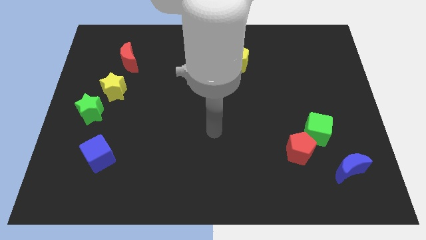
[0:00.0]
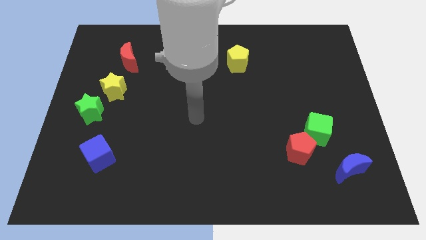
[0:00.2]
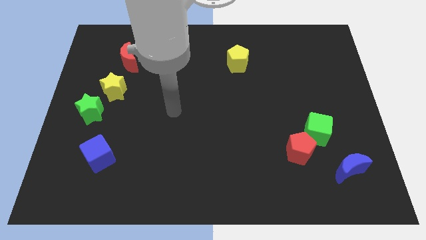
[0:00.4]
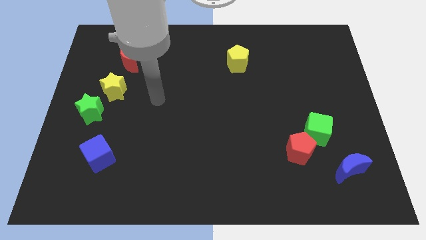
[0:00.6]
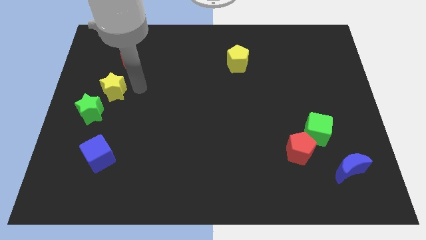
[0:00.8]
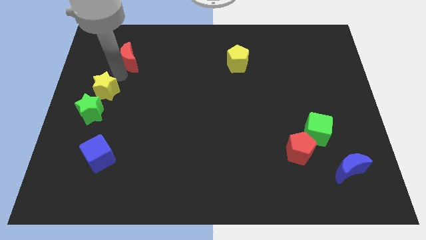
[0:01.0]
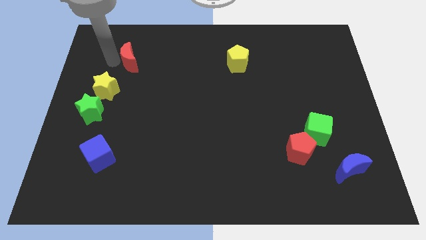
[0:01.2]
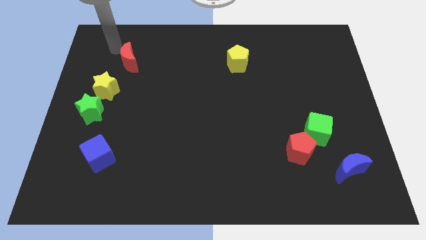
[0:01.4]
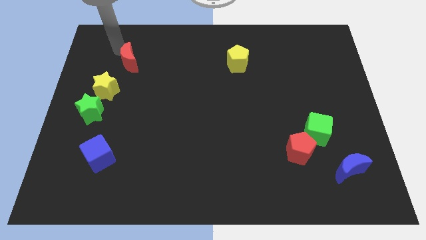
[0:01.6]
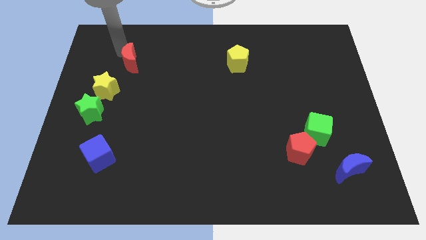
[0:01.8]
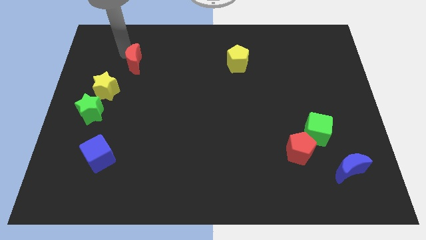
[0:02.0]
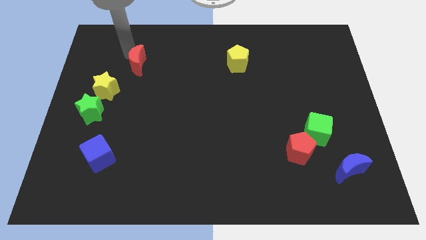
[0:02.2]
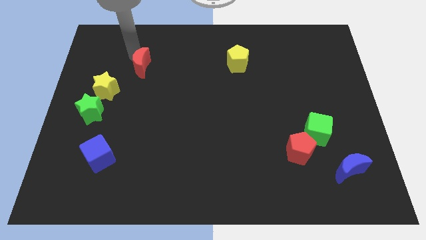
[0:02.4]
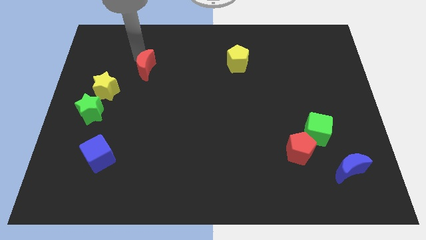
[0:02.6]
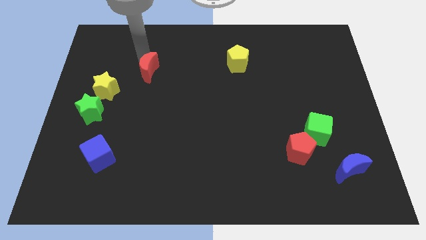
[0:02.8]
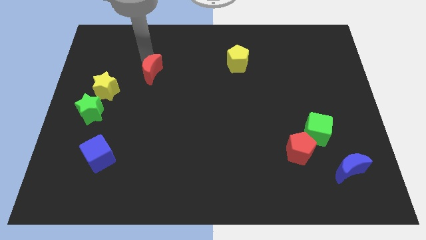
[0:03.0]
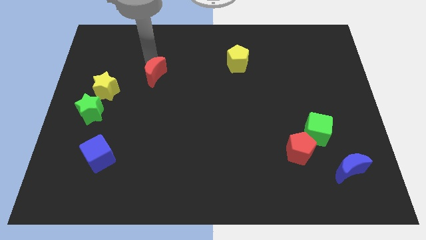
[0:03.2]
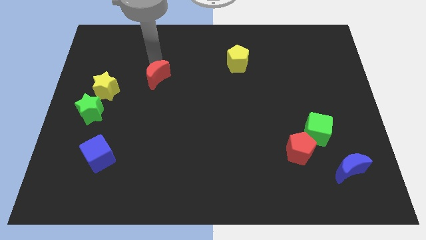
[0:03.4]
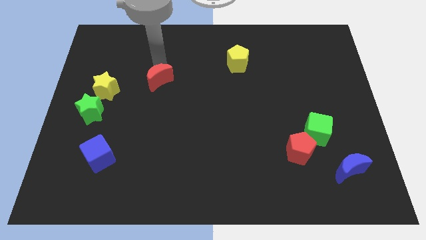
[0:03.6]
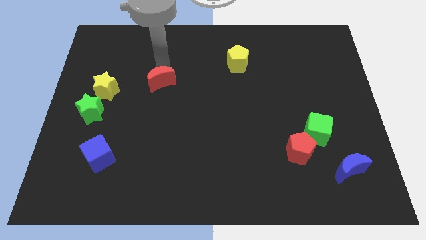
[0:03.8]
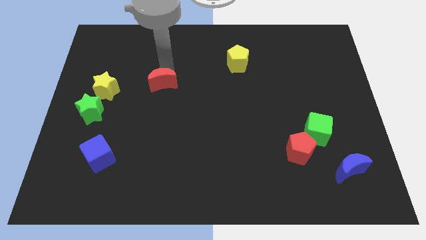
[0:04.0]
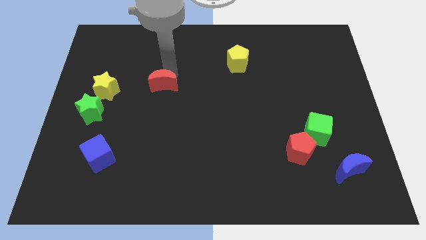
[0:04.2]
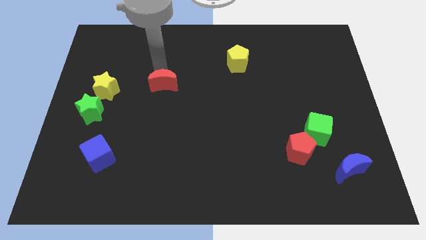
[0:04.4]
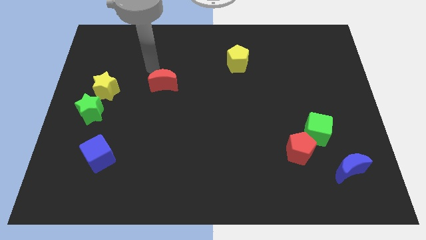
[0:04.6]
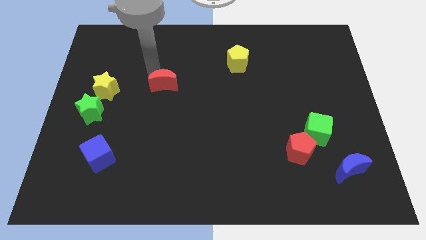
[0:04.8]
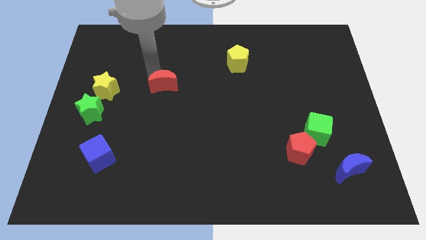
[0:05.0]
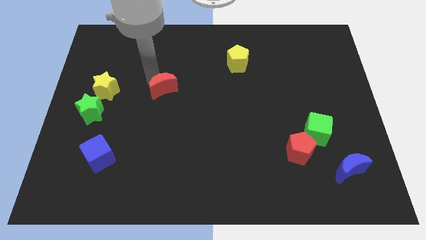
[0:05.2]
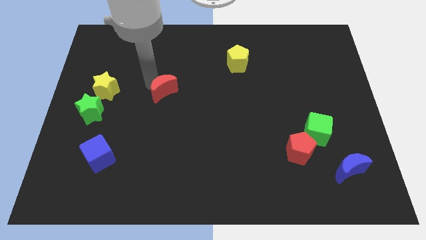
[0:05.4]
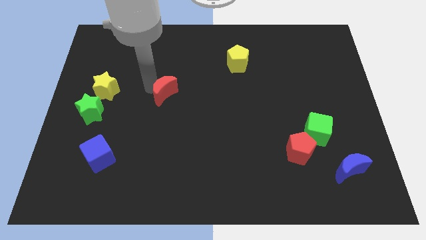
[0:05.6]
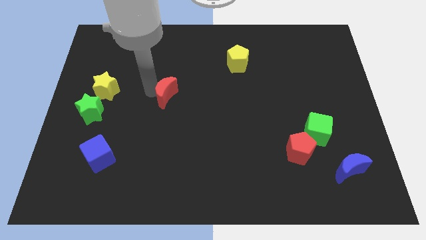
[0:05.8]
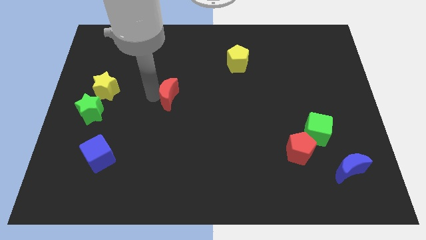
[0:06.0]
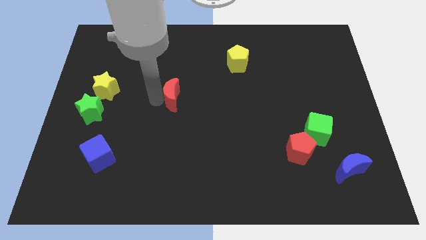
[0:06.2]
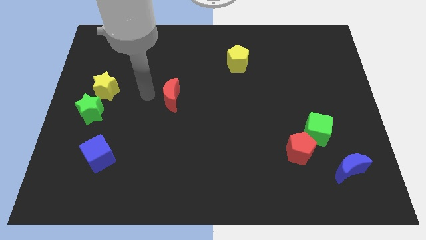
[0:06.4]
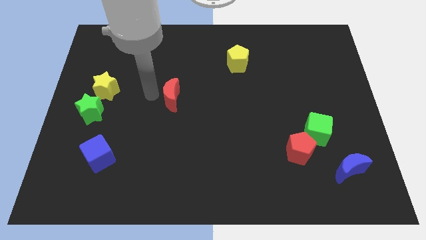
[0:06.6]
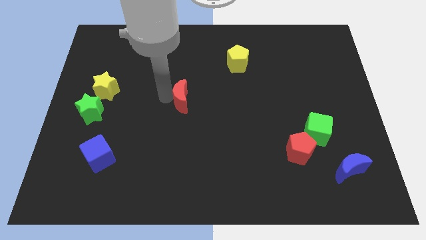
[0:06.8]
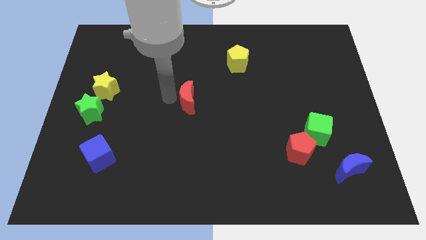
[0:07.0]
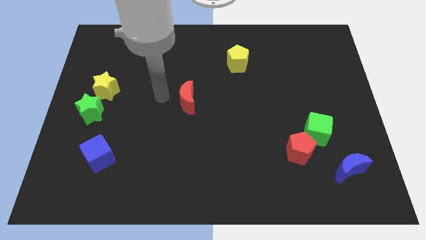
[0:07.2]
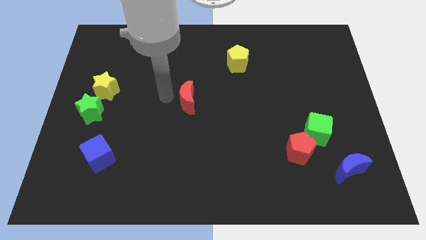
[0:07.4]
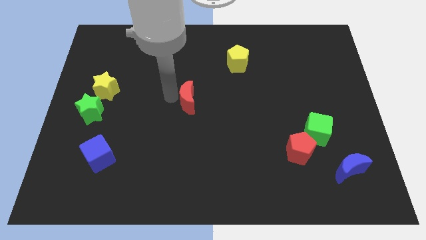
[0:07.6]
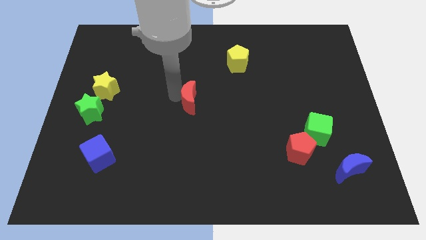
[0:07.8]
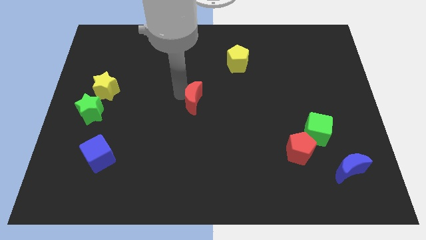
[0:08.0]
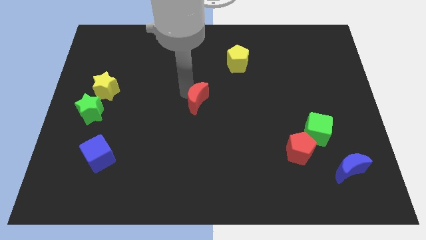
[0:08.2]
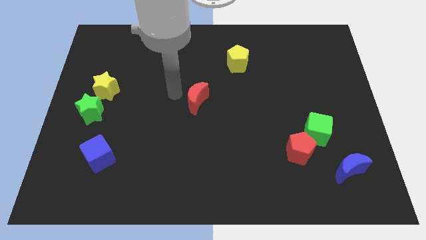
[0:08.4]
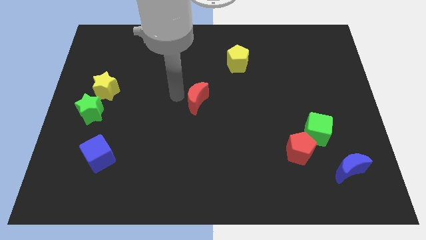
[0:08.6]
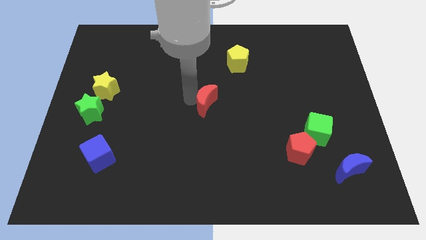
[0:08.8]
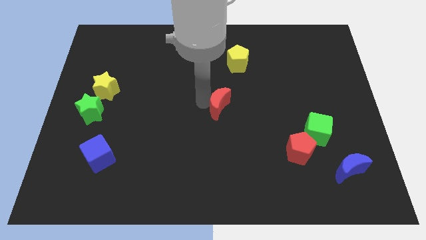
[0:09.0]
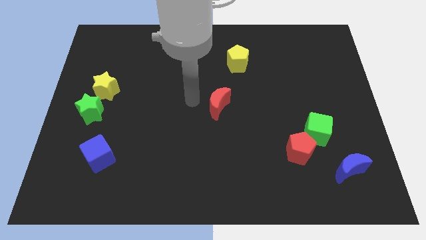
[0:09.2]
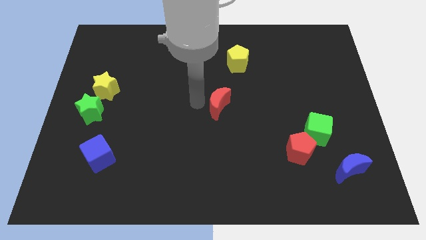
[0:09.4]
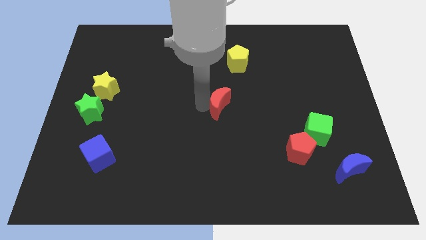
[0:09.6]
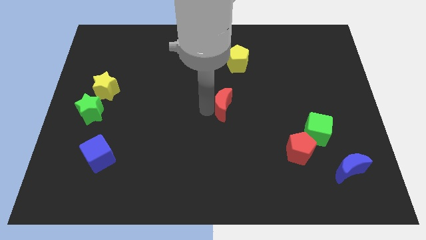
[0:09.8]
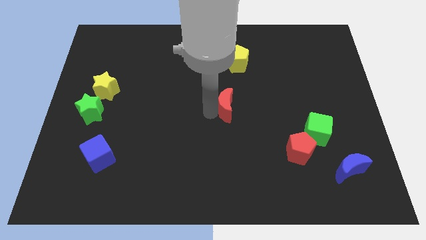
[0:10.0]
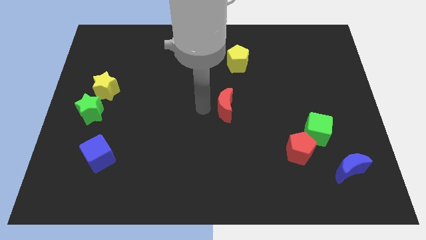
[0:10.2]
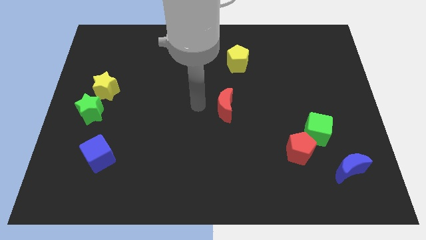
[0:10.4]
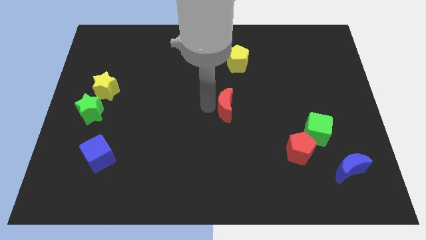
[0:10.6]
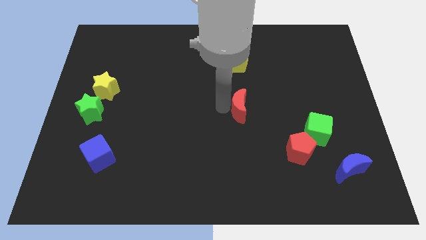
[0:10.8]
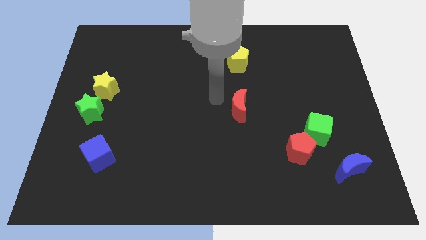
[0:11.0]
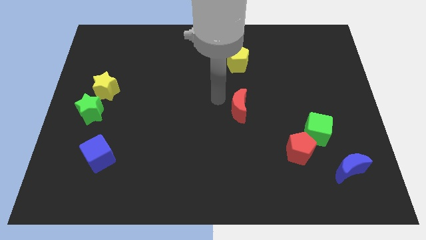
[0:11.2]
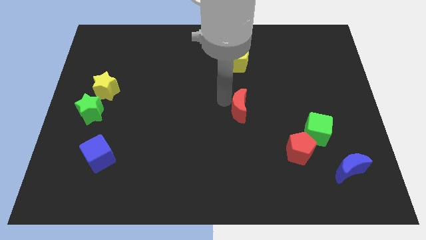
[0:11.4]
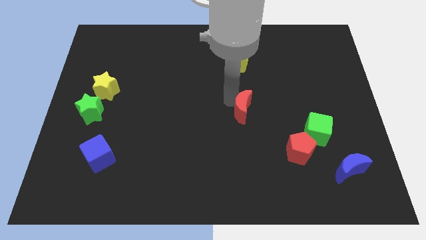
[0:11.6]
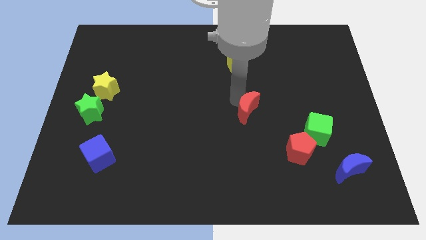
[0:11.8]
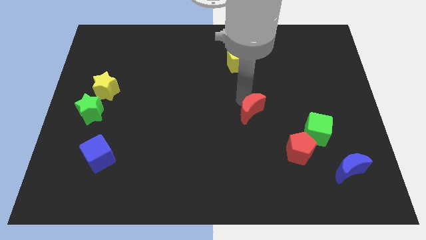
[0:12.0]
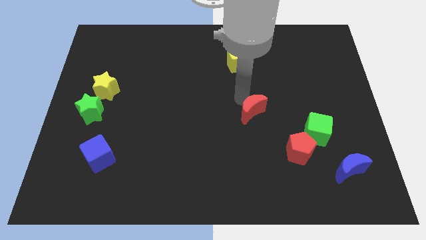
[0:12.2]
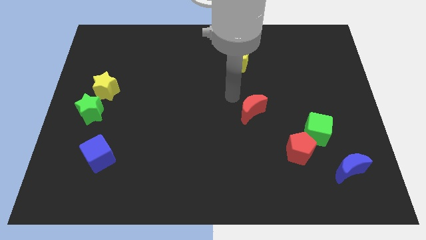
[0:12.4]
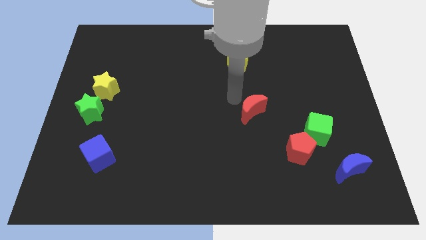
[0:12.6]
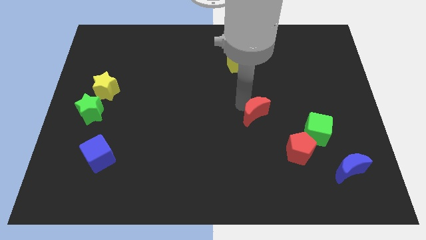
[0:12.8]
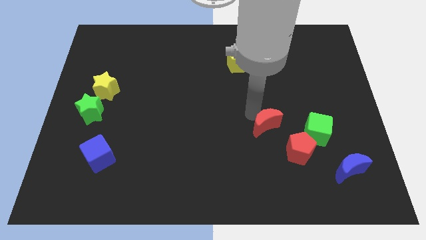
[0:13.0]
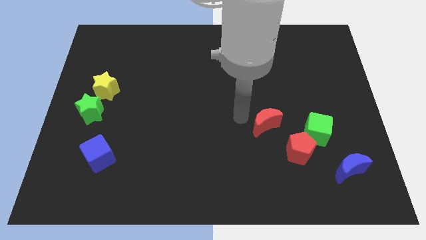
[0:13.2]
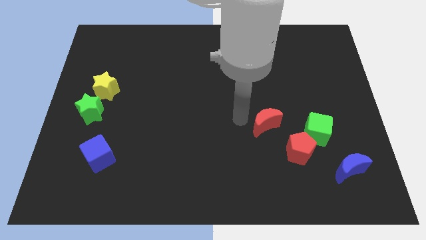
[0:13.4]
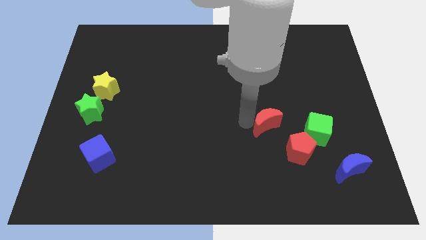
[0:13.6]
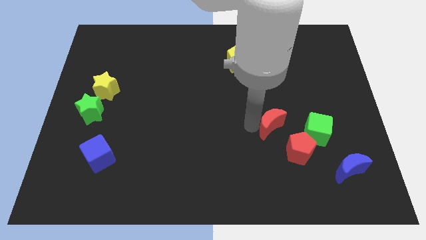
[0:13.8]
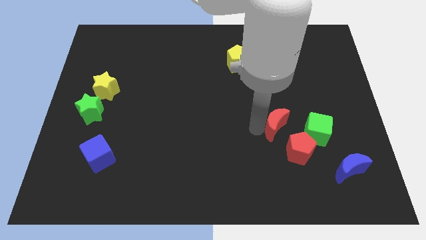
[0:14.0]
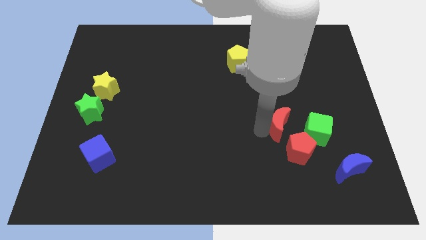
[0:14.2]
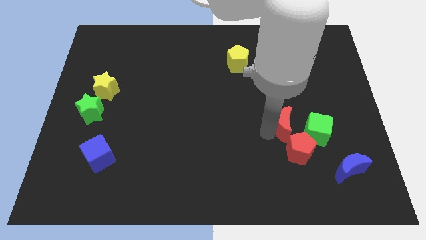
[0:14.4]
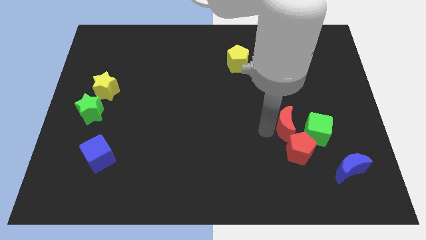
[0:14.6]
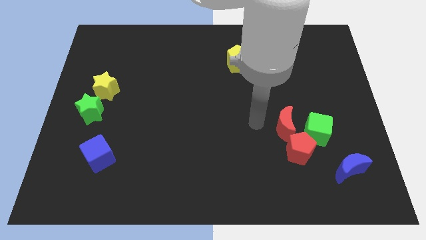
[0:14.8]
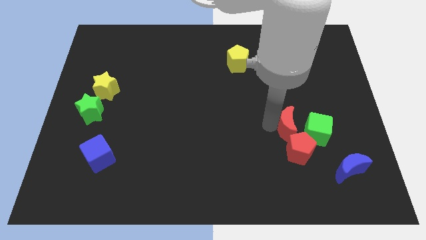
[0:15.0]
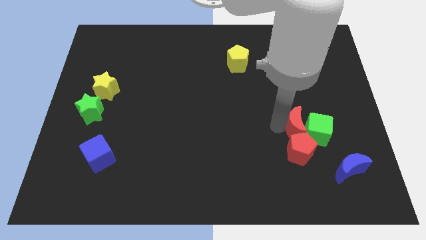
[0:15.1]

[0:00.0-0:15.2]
put the red moon to the green cube

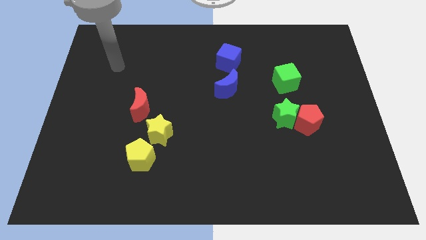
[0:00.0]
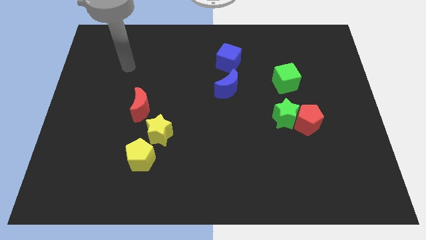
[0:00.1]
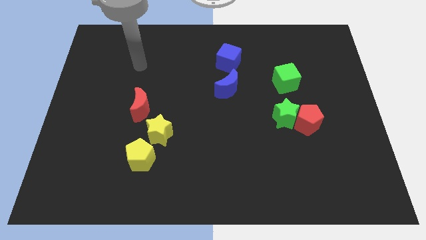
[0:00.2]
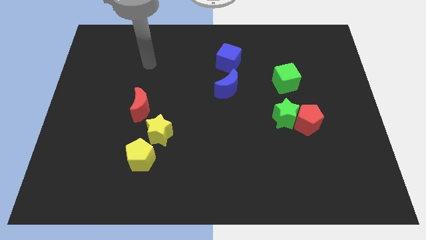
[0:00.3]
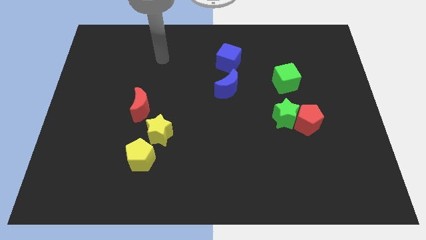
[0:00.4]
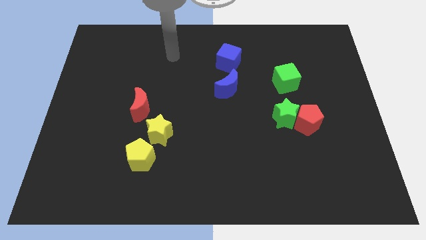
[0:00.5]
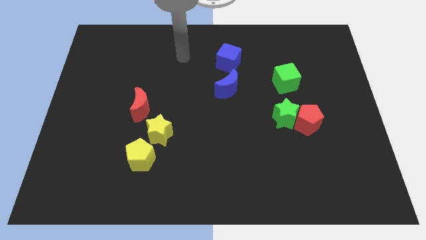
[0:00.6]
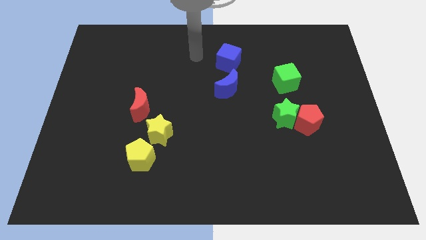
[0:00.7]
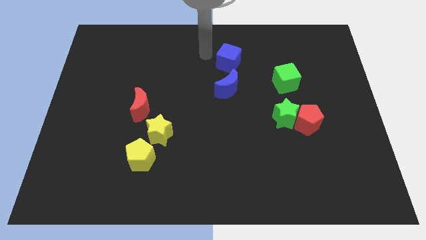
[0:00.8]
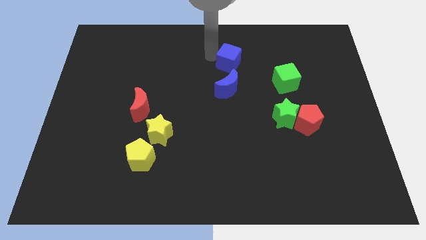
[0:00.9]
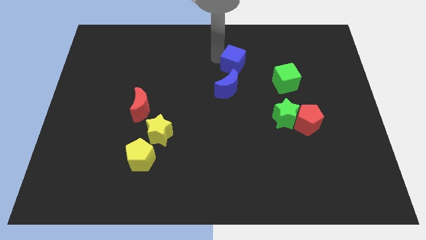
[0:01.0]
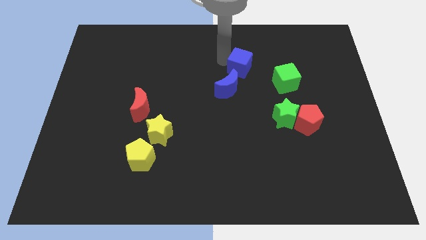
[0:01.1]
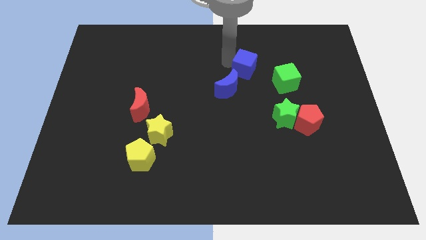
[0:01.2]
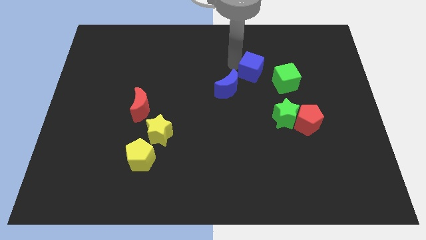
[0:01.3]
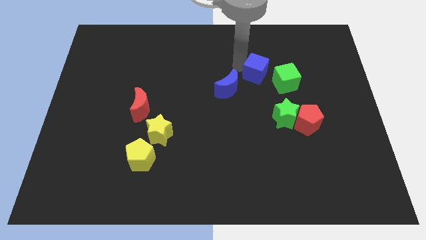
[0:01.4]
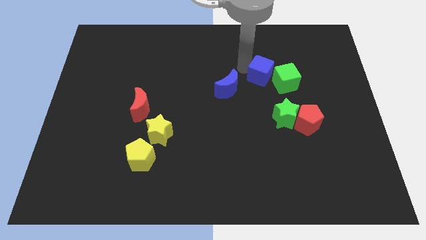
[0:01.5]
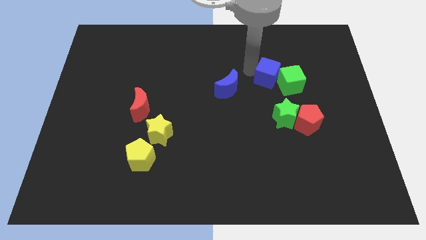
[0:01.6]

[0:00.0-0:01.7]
slide the blue cube to the green cube
